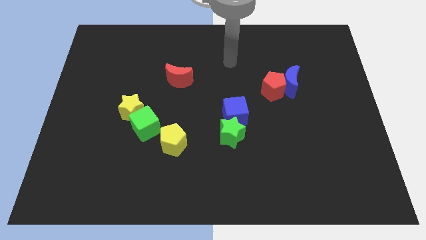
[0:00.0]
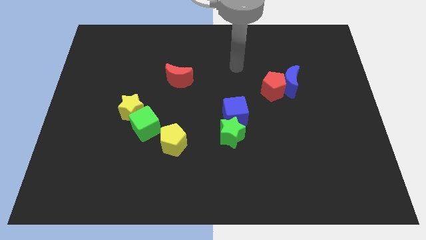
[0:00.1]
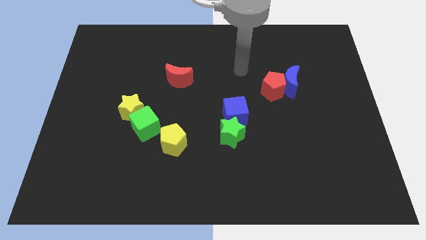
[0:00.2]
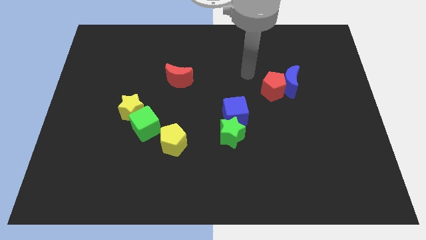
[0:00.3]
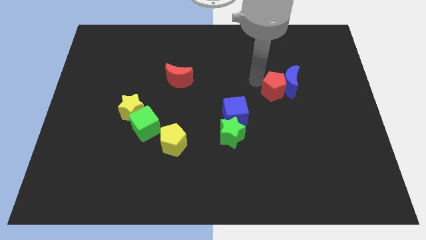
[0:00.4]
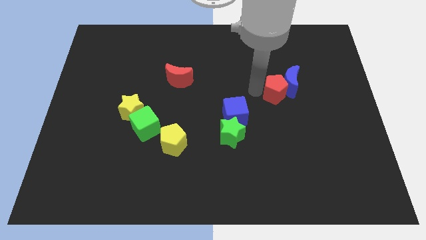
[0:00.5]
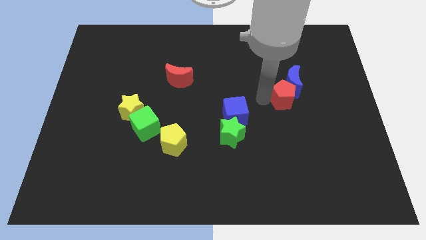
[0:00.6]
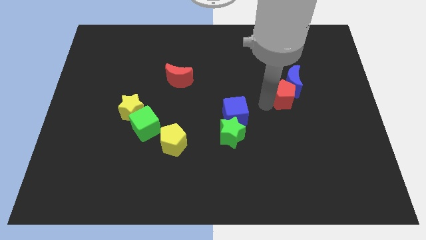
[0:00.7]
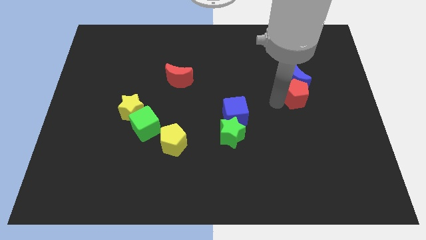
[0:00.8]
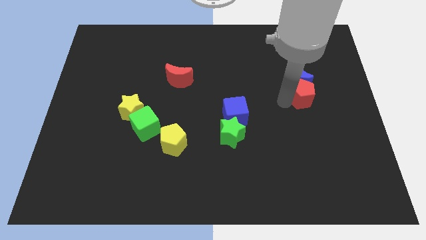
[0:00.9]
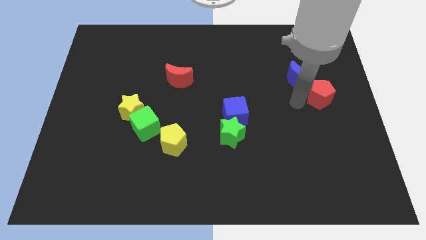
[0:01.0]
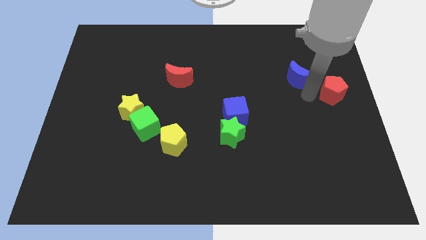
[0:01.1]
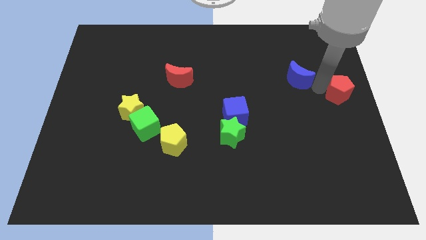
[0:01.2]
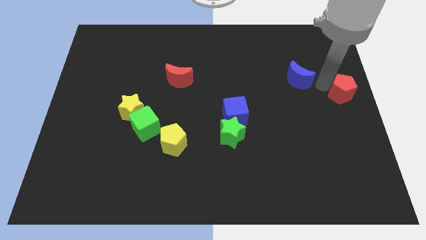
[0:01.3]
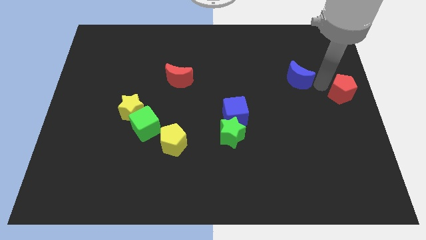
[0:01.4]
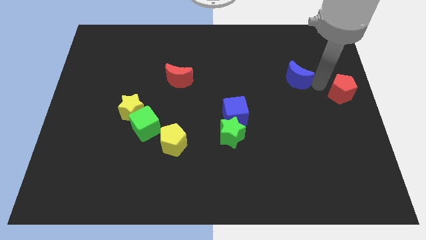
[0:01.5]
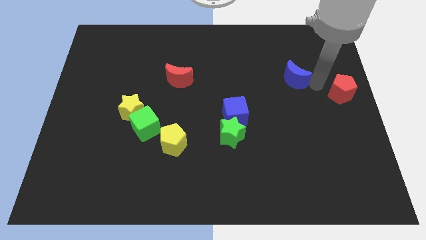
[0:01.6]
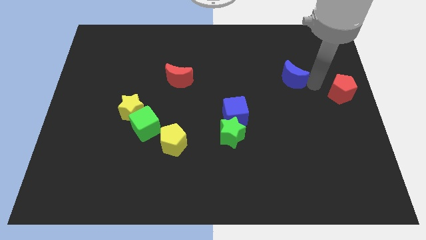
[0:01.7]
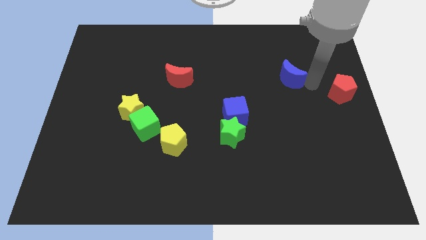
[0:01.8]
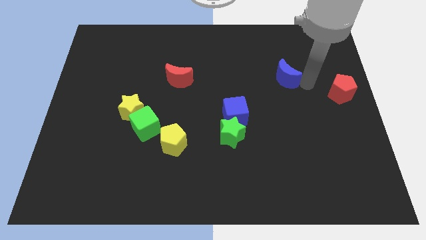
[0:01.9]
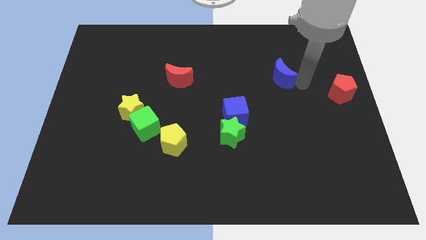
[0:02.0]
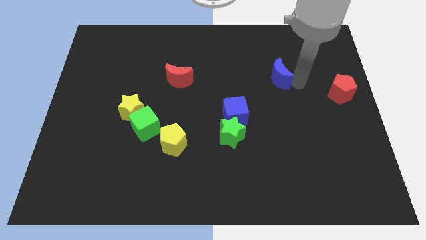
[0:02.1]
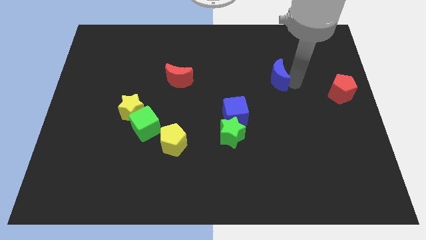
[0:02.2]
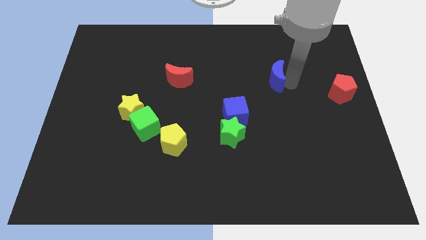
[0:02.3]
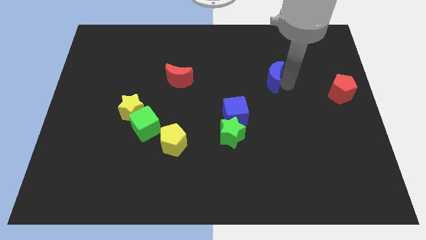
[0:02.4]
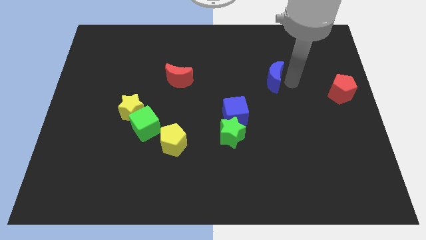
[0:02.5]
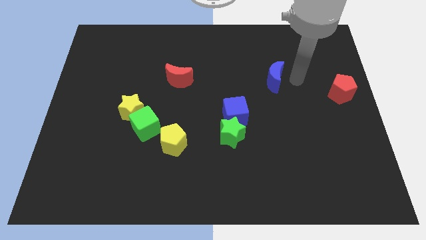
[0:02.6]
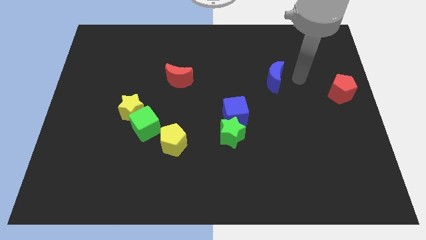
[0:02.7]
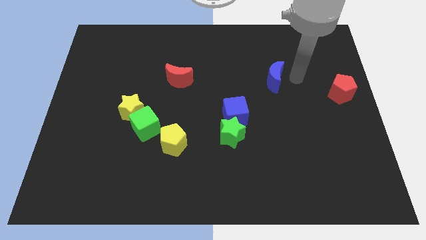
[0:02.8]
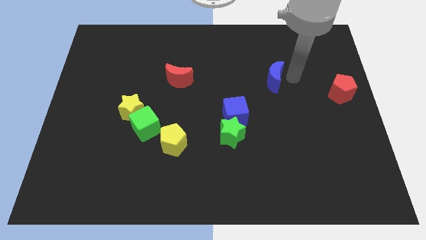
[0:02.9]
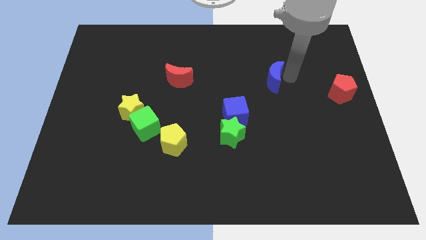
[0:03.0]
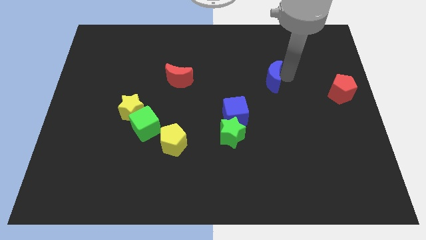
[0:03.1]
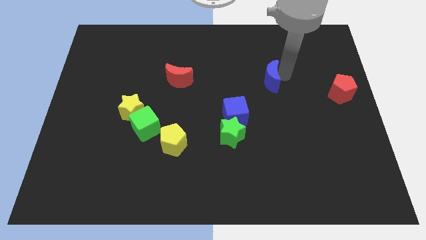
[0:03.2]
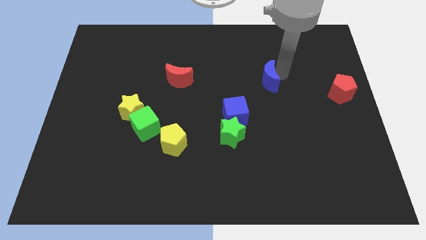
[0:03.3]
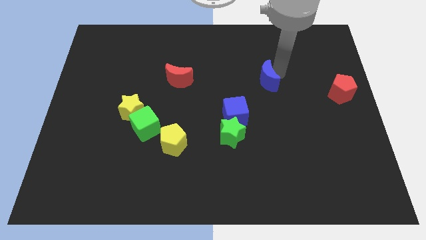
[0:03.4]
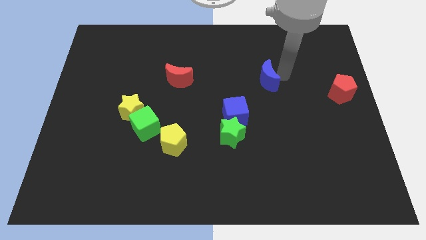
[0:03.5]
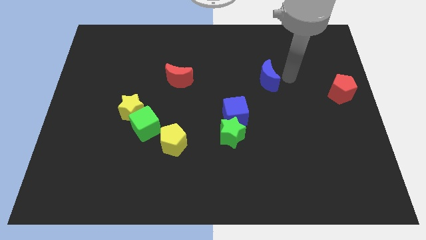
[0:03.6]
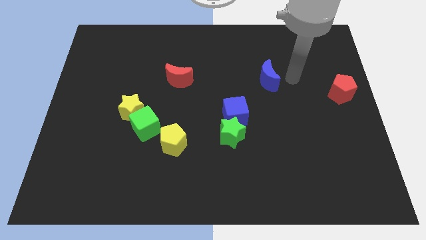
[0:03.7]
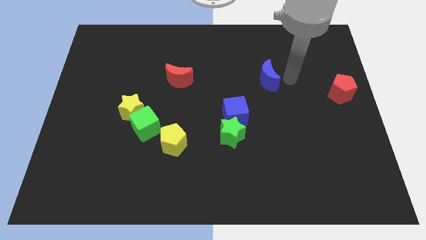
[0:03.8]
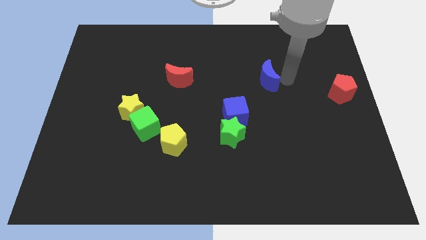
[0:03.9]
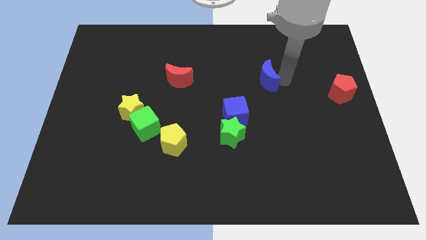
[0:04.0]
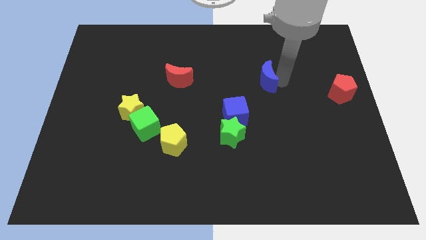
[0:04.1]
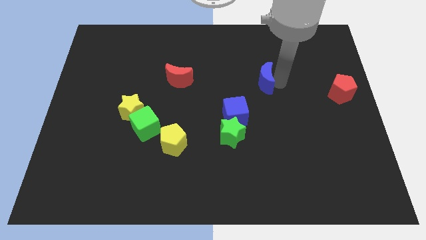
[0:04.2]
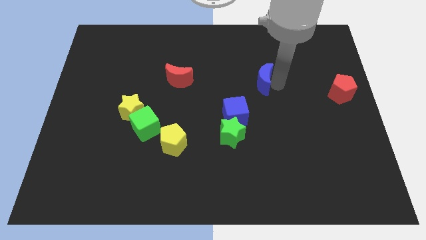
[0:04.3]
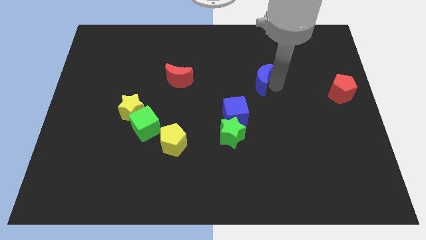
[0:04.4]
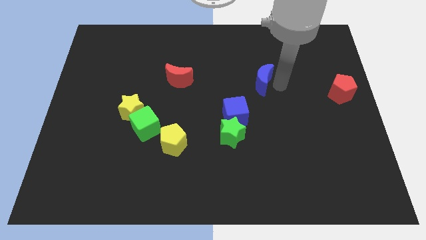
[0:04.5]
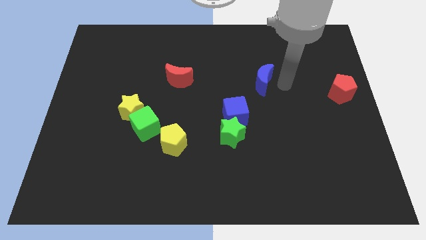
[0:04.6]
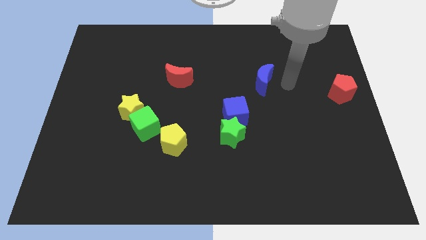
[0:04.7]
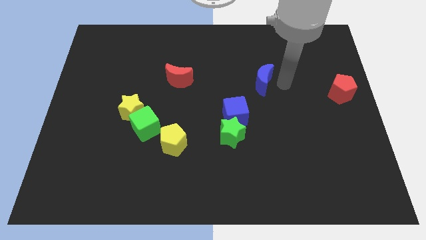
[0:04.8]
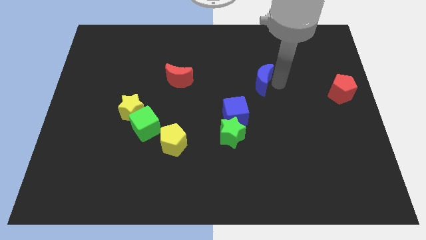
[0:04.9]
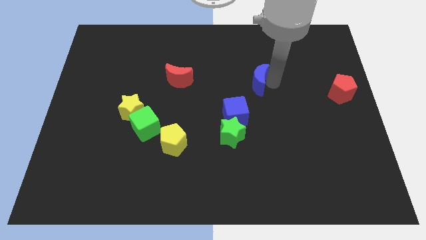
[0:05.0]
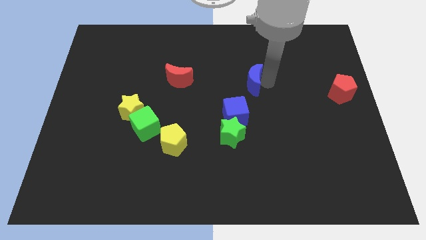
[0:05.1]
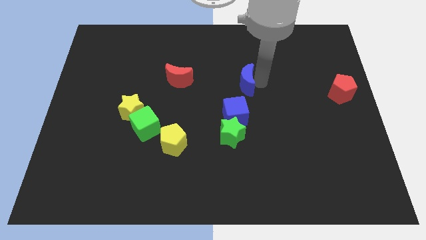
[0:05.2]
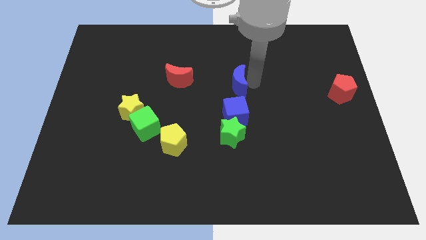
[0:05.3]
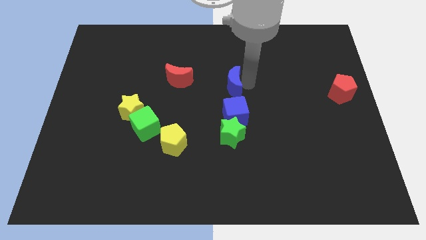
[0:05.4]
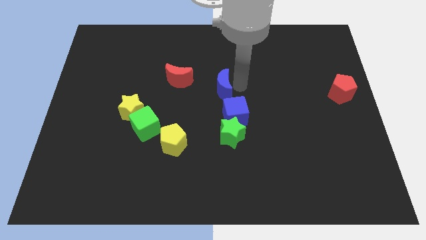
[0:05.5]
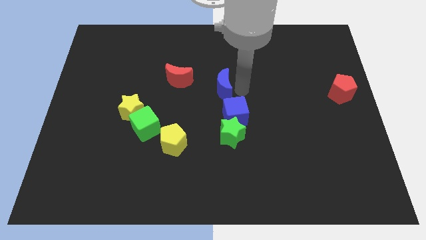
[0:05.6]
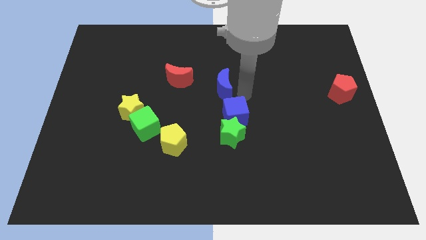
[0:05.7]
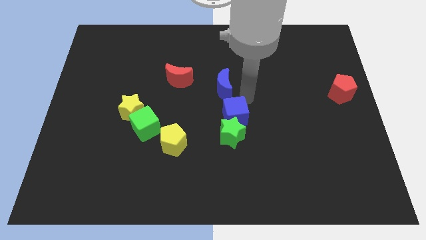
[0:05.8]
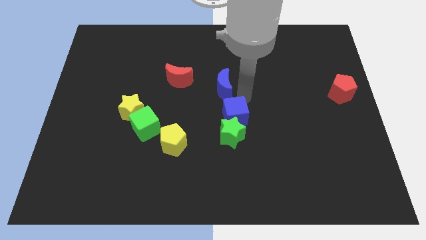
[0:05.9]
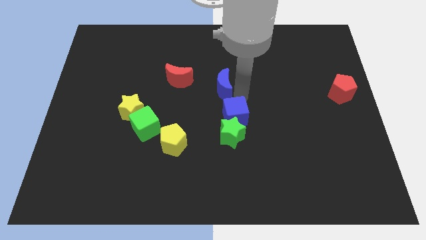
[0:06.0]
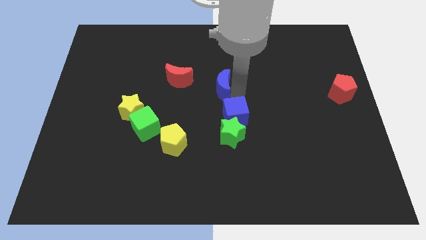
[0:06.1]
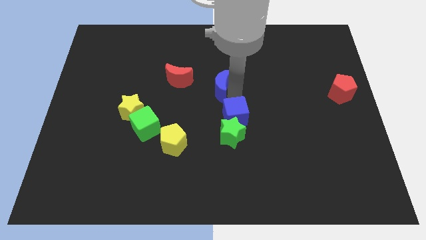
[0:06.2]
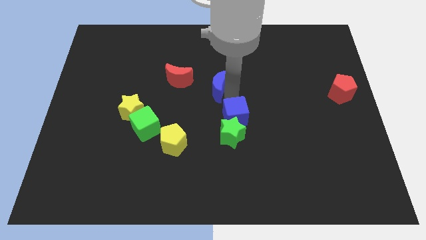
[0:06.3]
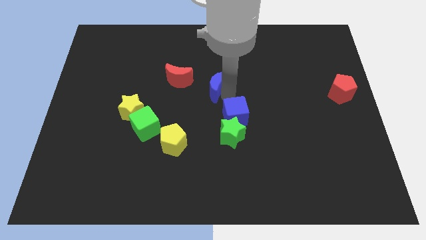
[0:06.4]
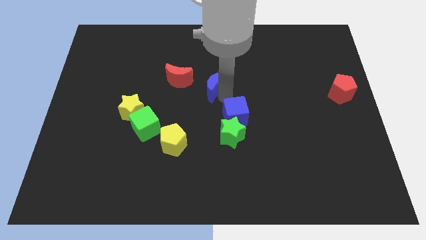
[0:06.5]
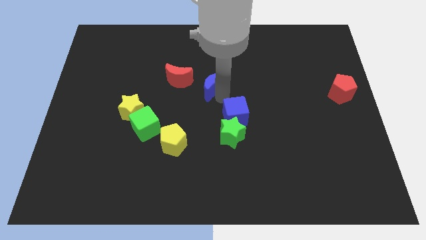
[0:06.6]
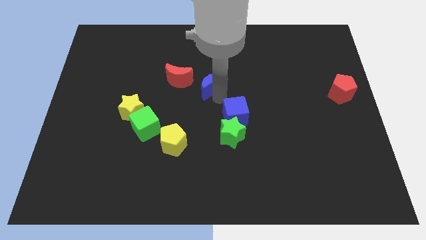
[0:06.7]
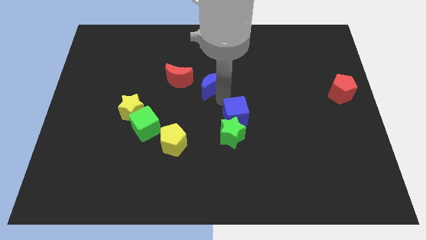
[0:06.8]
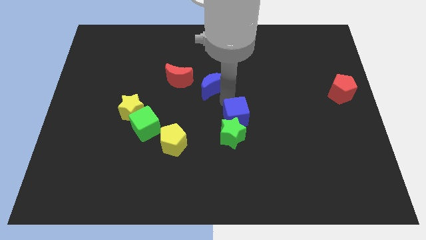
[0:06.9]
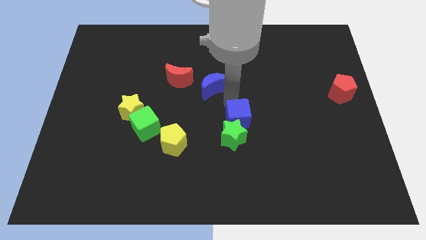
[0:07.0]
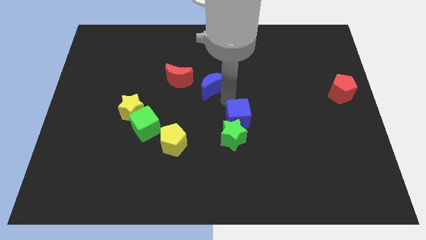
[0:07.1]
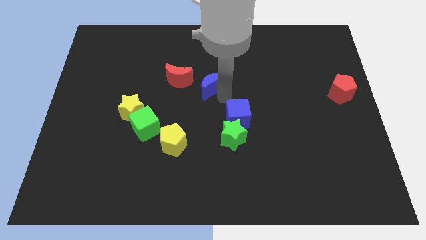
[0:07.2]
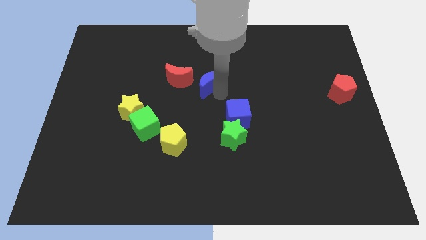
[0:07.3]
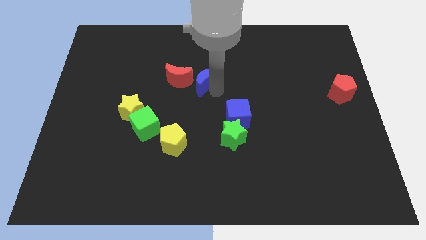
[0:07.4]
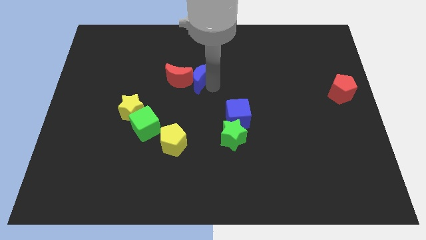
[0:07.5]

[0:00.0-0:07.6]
slide the blue moon towards the red moon
